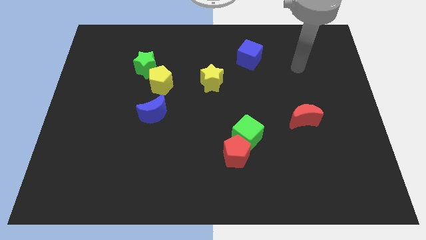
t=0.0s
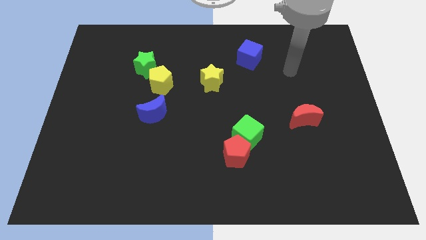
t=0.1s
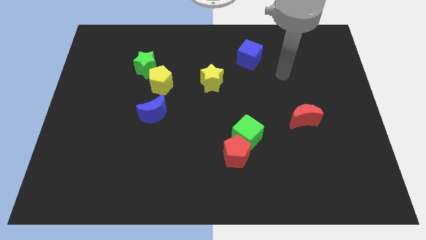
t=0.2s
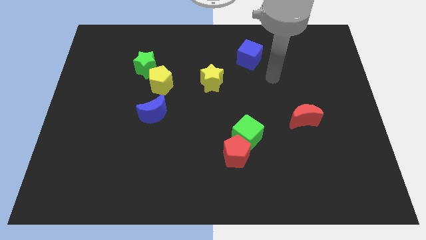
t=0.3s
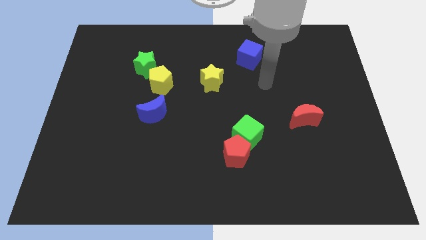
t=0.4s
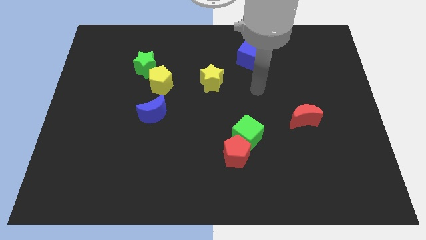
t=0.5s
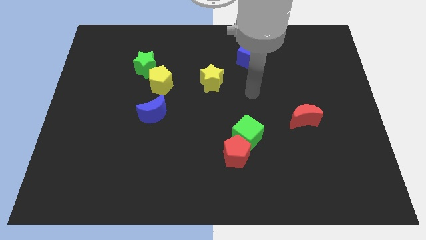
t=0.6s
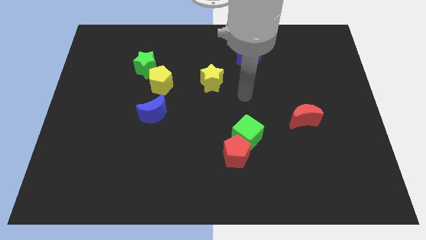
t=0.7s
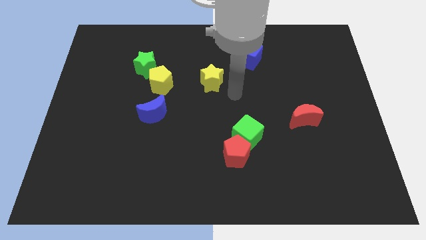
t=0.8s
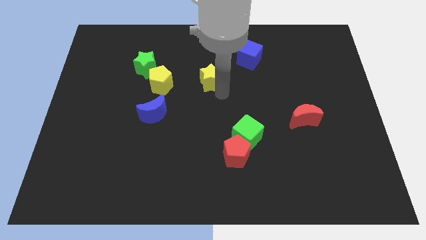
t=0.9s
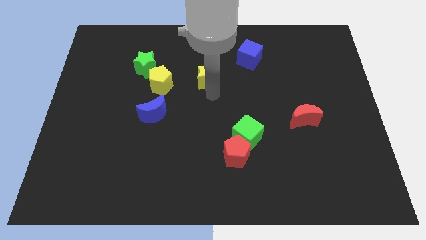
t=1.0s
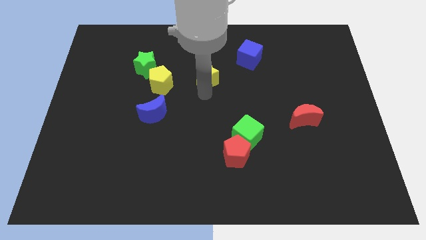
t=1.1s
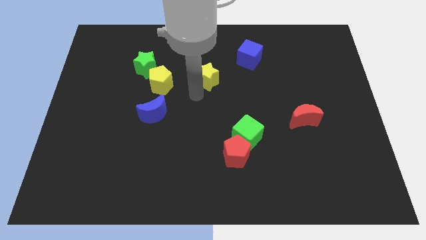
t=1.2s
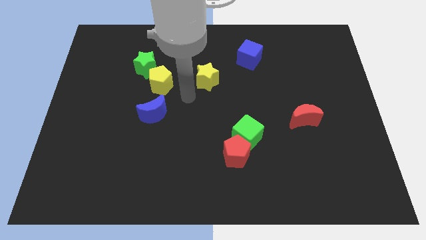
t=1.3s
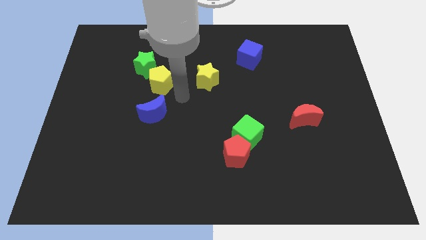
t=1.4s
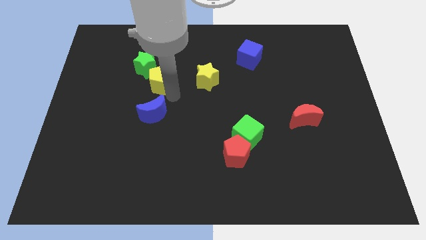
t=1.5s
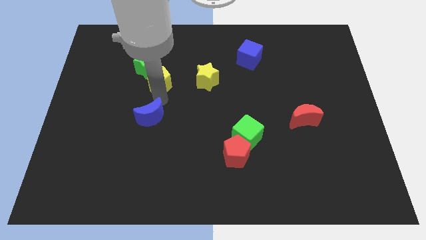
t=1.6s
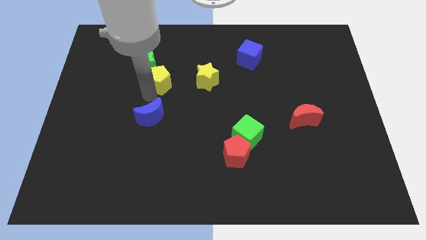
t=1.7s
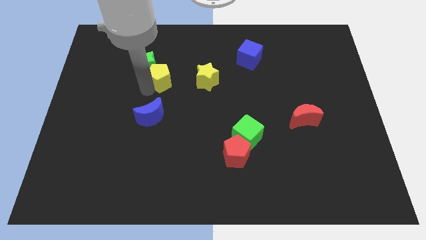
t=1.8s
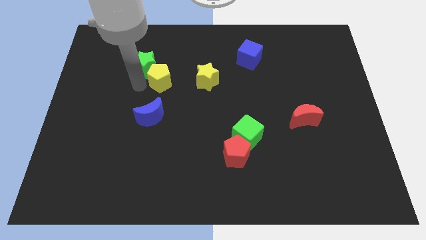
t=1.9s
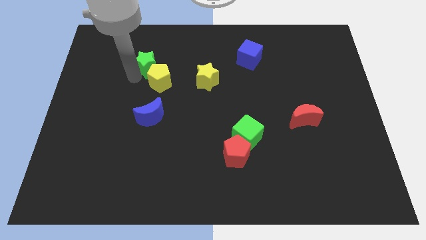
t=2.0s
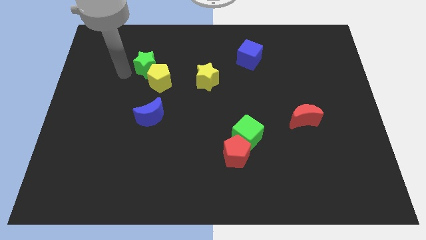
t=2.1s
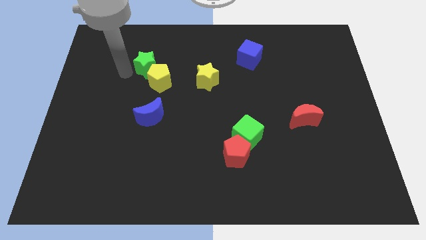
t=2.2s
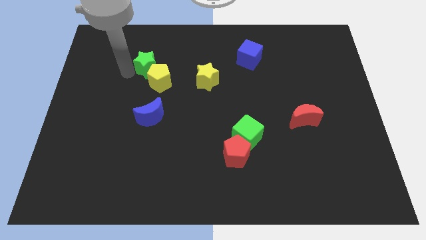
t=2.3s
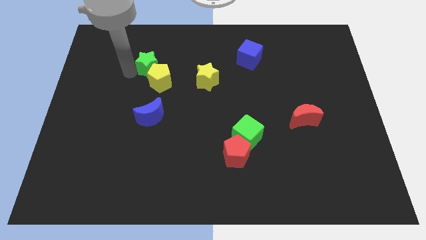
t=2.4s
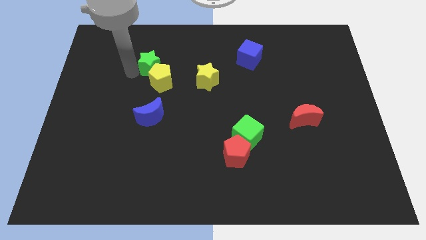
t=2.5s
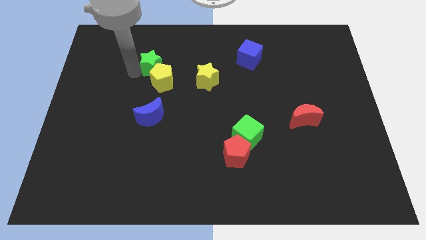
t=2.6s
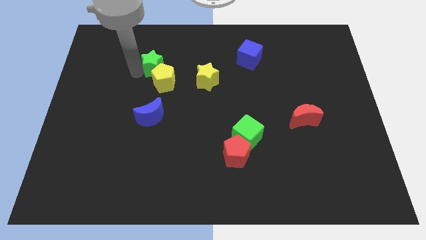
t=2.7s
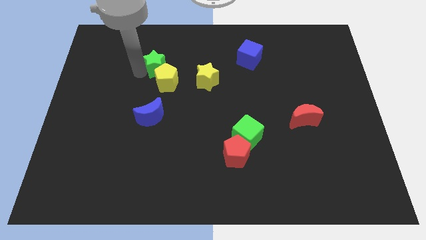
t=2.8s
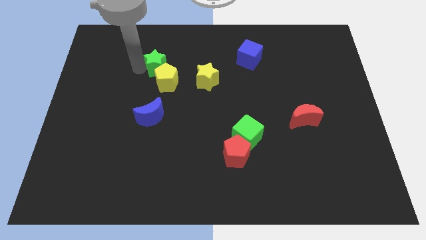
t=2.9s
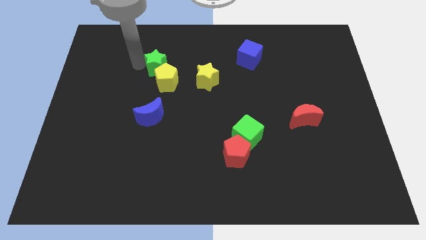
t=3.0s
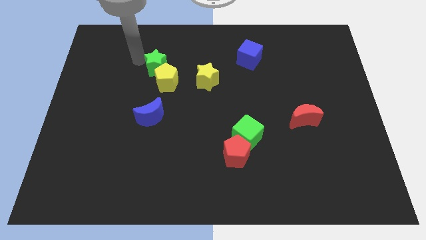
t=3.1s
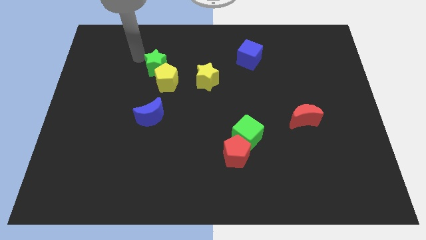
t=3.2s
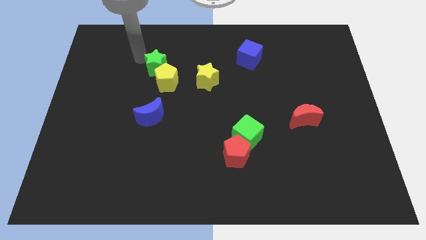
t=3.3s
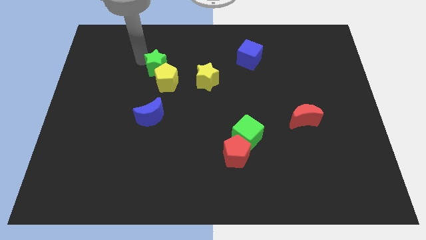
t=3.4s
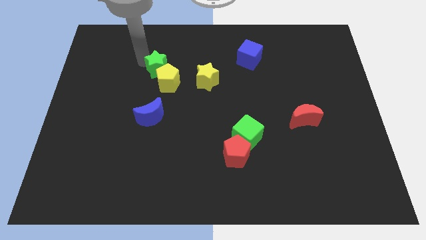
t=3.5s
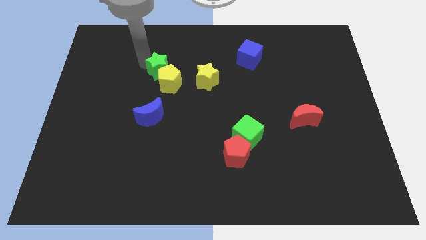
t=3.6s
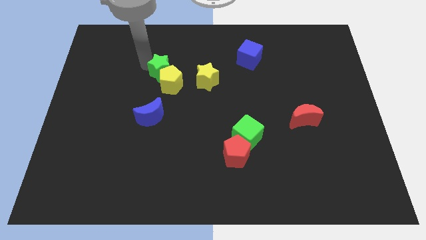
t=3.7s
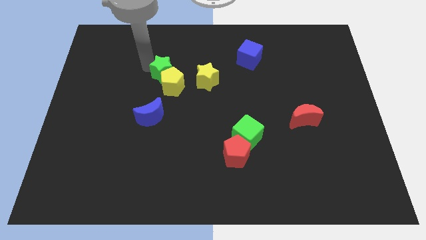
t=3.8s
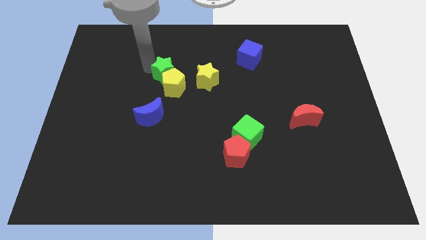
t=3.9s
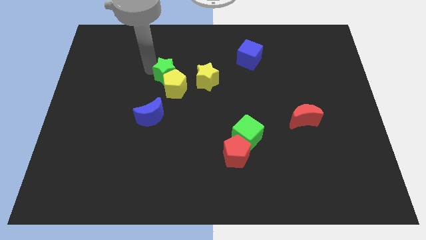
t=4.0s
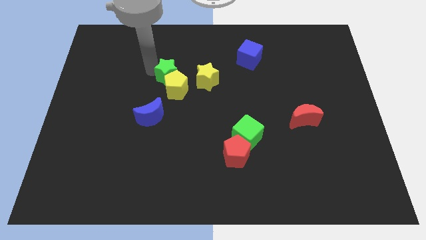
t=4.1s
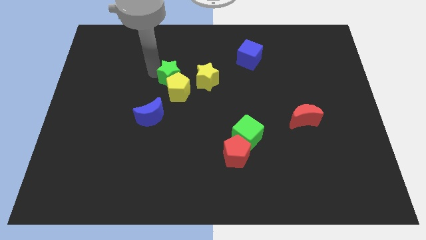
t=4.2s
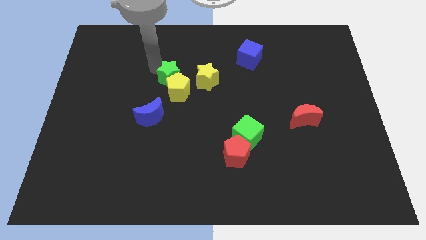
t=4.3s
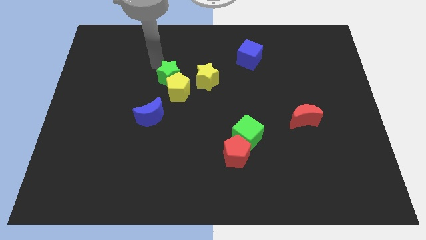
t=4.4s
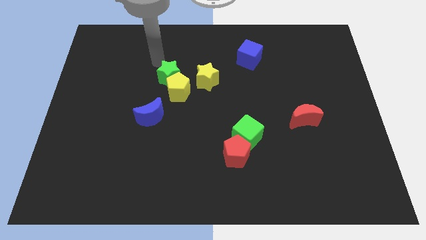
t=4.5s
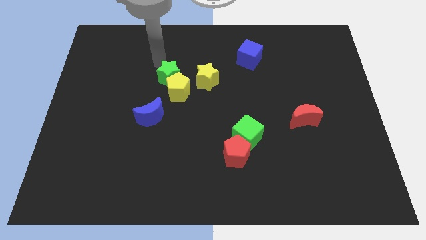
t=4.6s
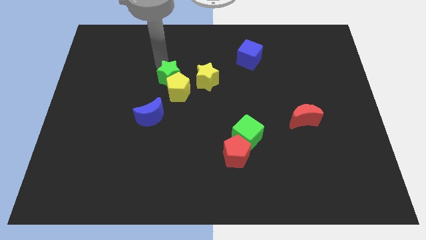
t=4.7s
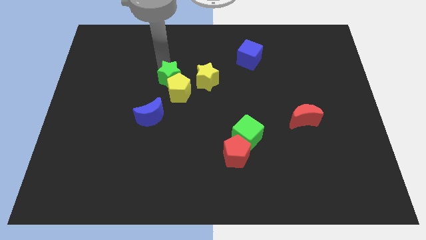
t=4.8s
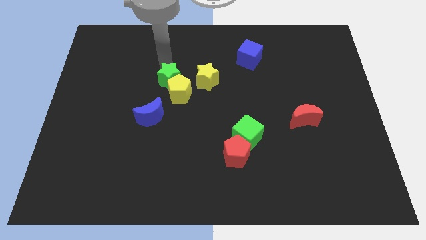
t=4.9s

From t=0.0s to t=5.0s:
push the green star somewhat down and to the right diagonally

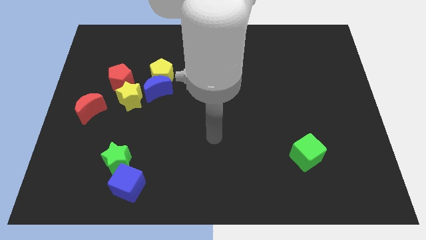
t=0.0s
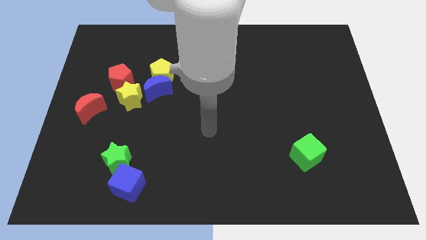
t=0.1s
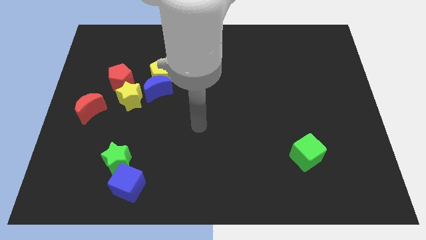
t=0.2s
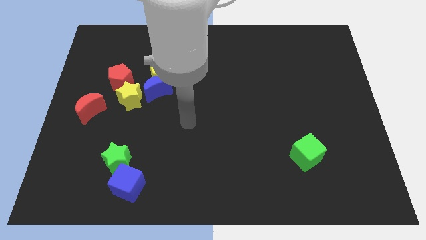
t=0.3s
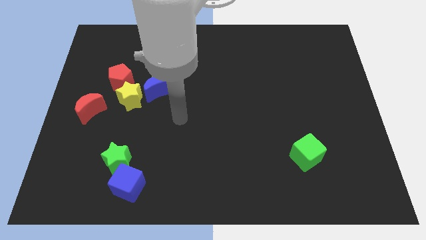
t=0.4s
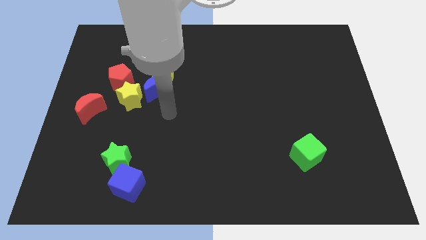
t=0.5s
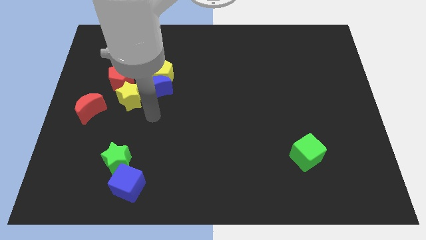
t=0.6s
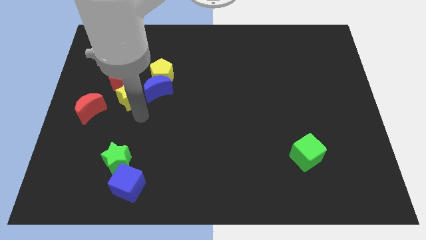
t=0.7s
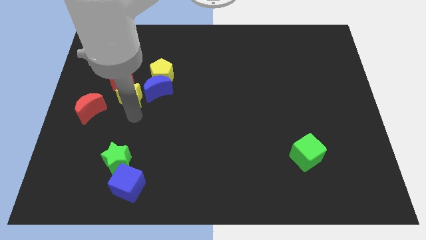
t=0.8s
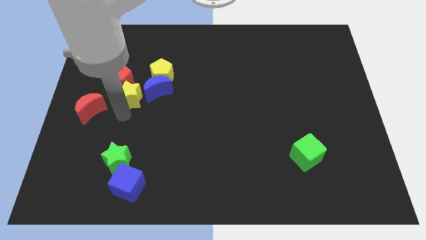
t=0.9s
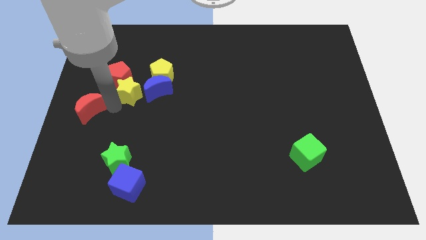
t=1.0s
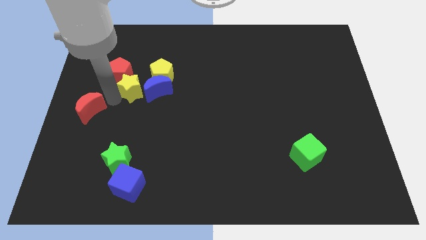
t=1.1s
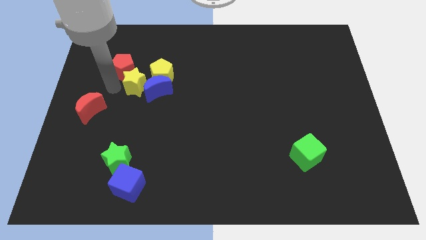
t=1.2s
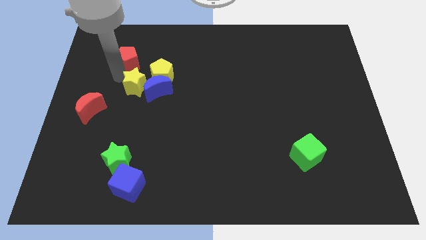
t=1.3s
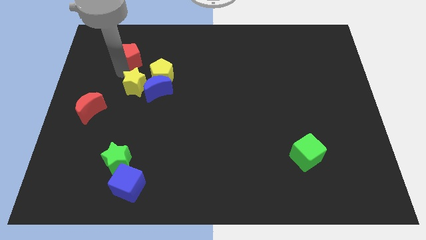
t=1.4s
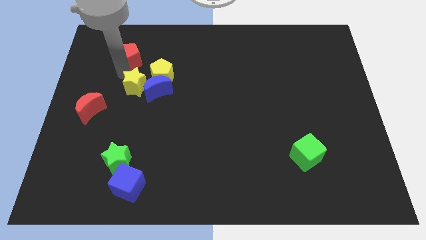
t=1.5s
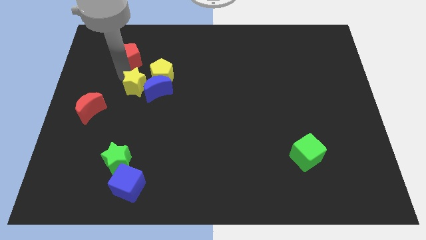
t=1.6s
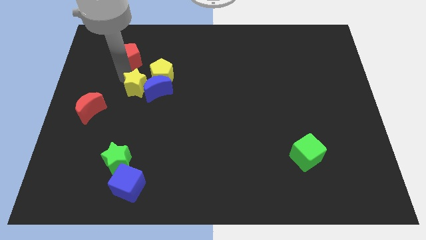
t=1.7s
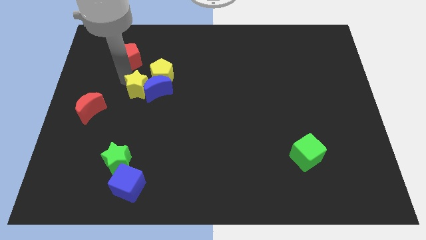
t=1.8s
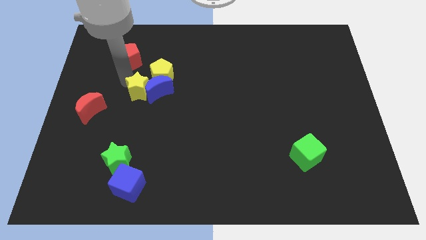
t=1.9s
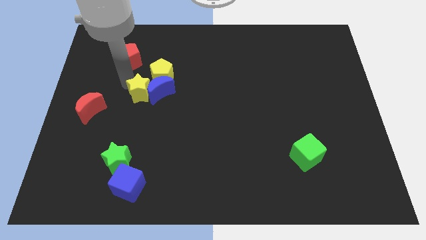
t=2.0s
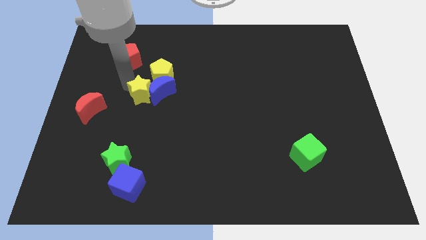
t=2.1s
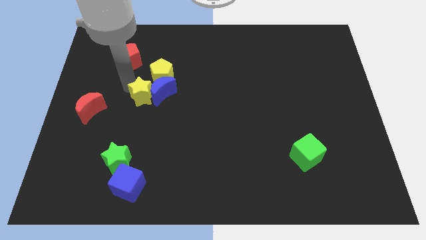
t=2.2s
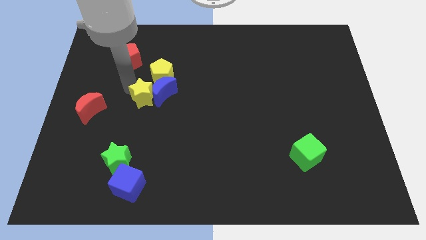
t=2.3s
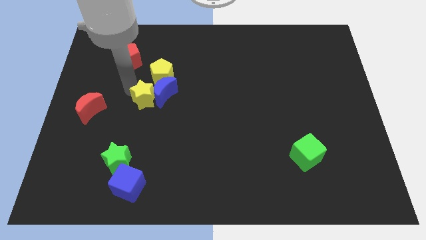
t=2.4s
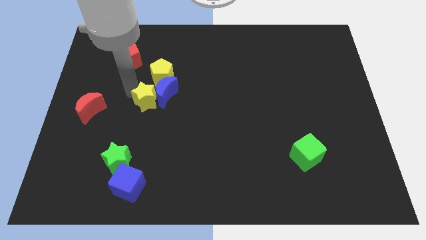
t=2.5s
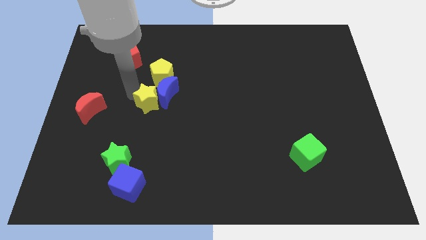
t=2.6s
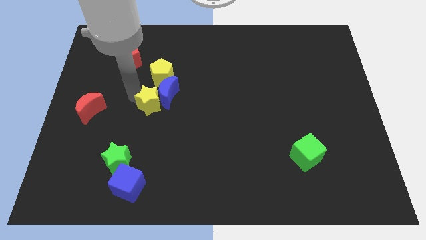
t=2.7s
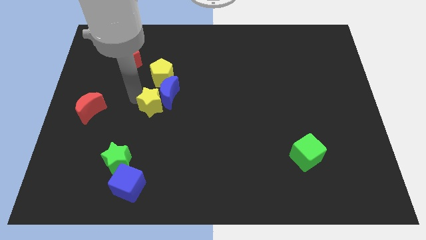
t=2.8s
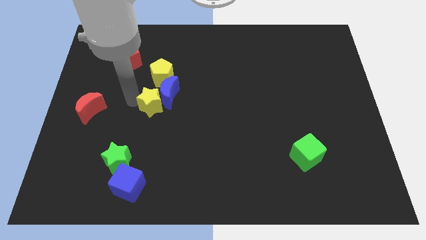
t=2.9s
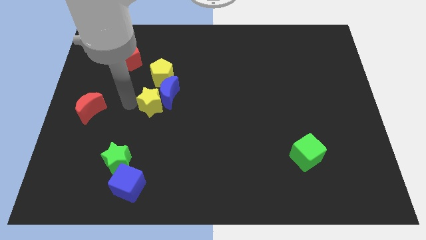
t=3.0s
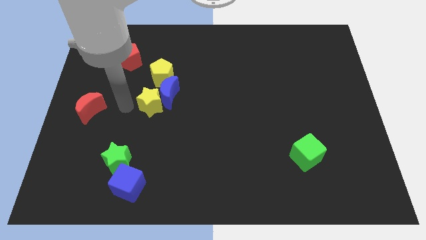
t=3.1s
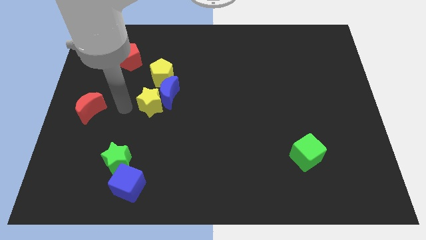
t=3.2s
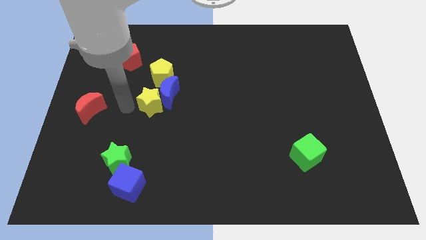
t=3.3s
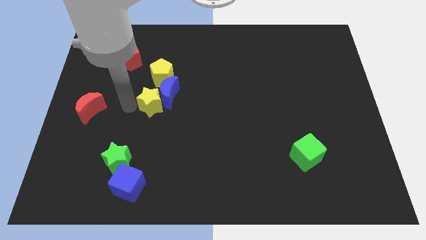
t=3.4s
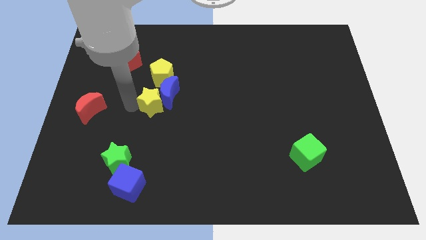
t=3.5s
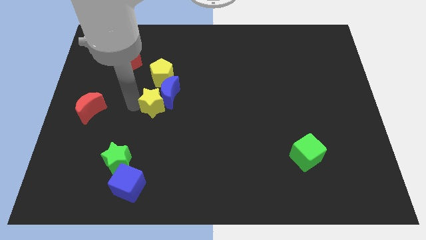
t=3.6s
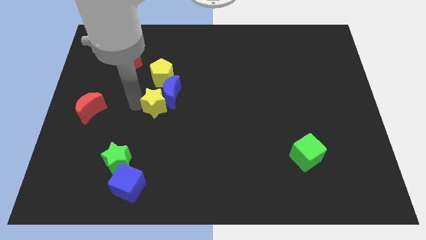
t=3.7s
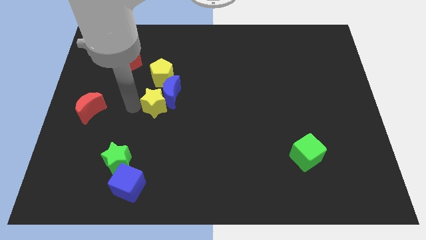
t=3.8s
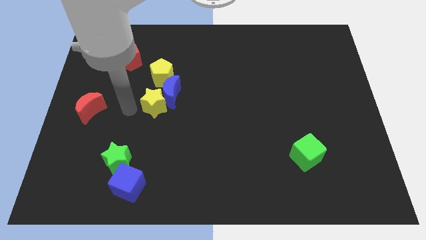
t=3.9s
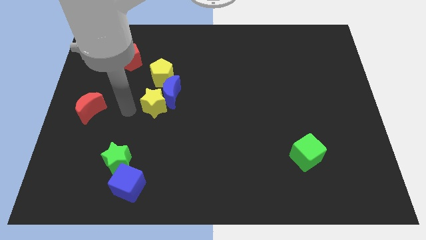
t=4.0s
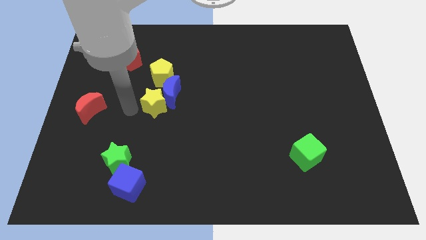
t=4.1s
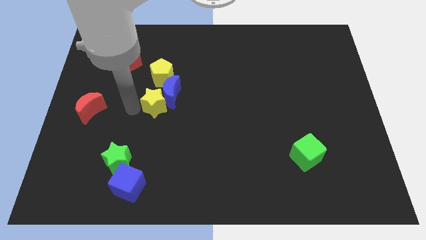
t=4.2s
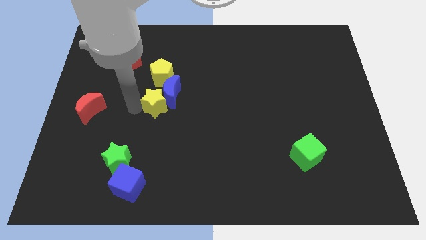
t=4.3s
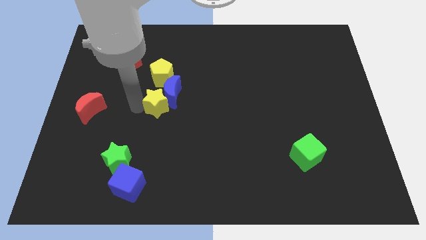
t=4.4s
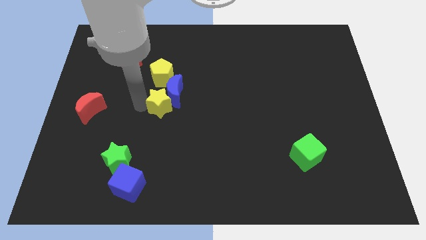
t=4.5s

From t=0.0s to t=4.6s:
slightly move the yellow star right
